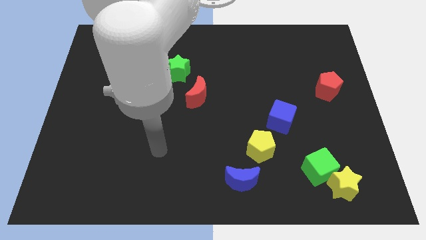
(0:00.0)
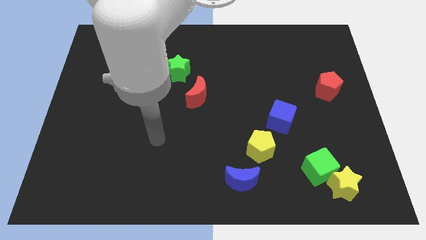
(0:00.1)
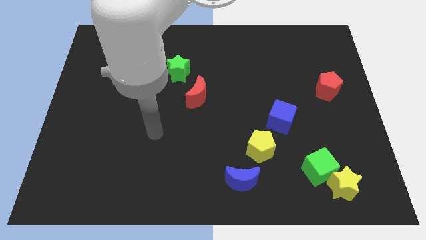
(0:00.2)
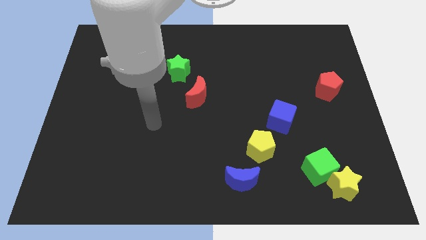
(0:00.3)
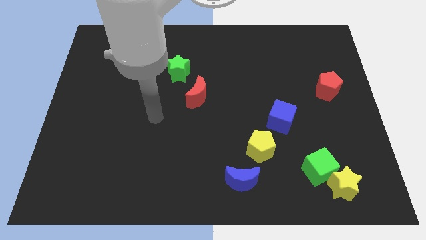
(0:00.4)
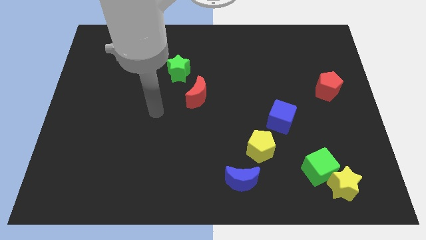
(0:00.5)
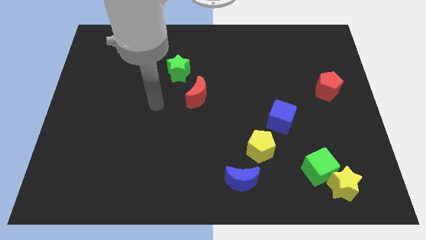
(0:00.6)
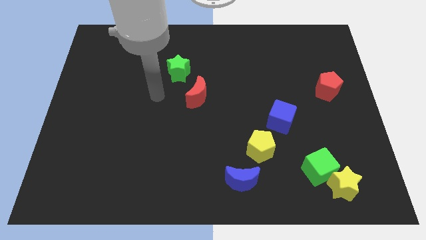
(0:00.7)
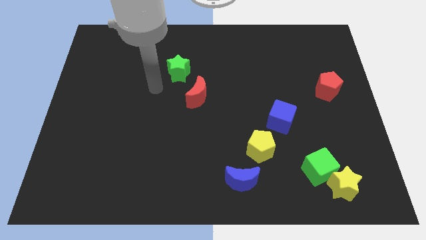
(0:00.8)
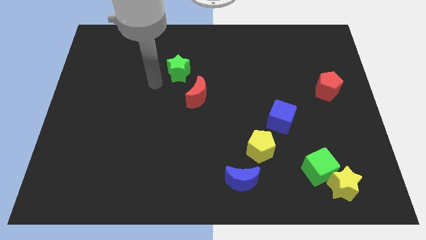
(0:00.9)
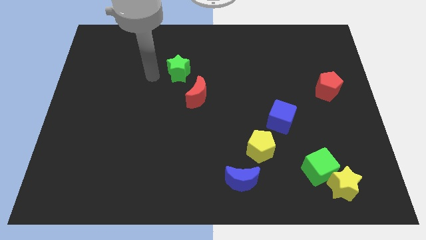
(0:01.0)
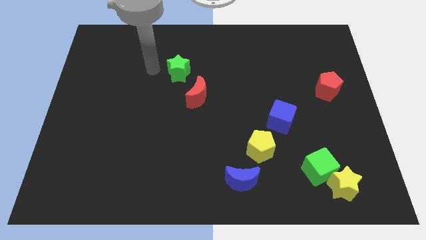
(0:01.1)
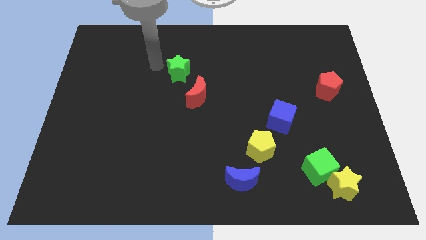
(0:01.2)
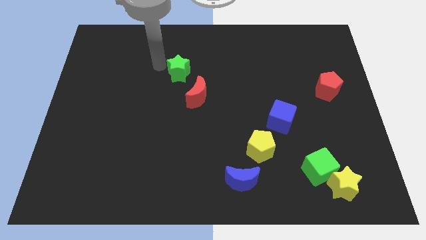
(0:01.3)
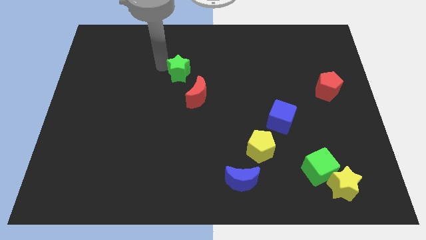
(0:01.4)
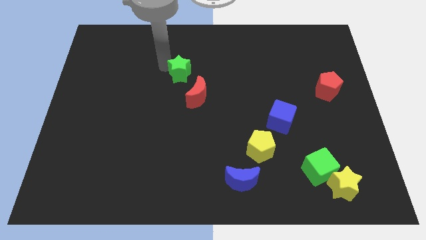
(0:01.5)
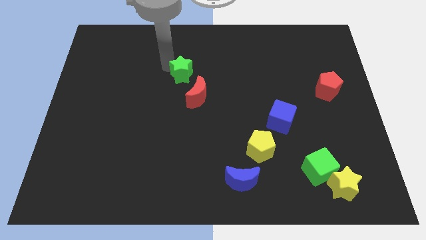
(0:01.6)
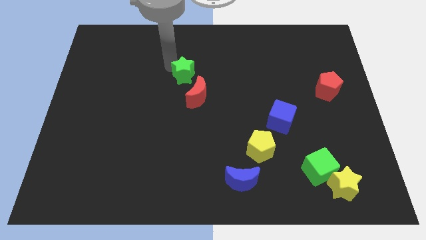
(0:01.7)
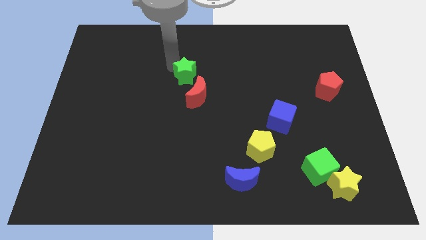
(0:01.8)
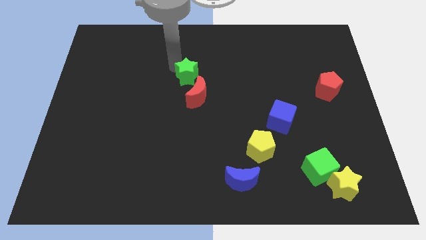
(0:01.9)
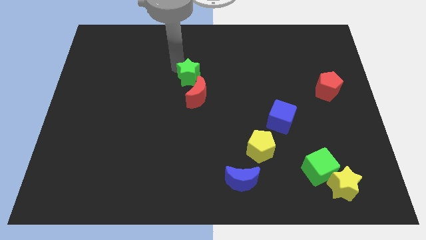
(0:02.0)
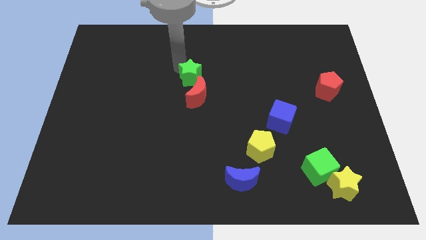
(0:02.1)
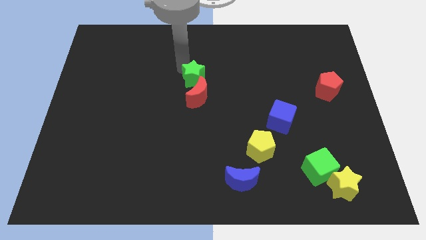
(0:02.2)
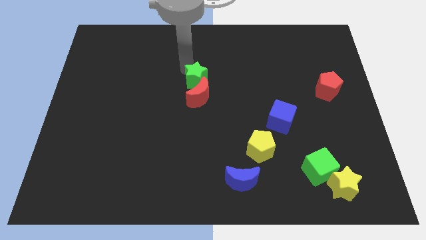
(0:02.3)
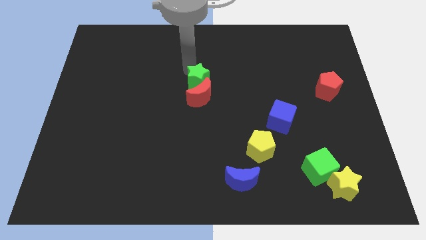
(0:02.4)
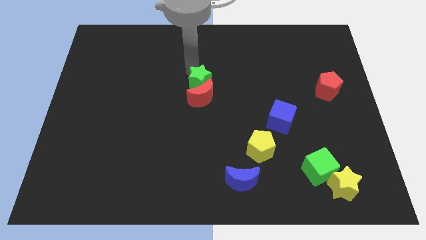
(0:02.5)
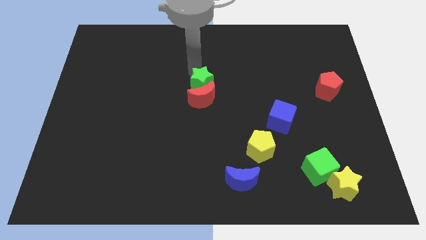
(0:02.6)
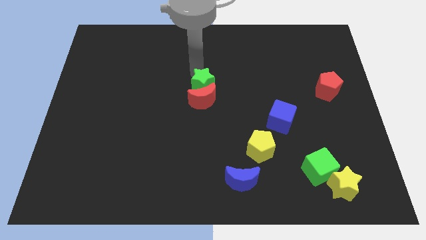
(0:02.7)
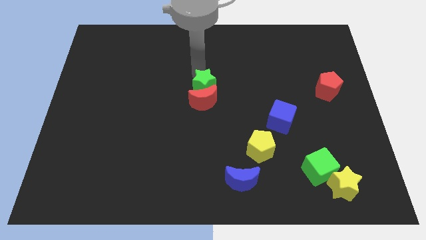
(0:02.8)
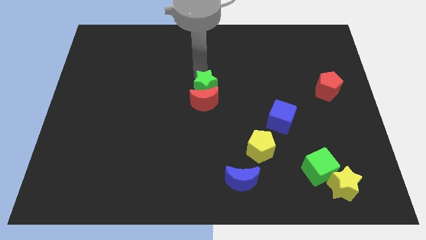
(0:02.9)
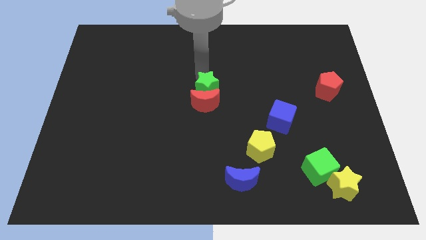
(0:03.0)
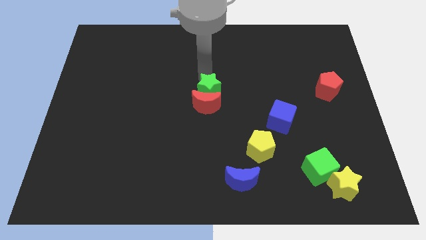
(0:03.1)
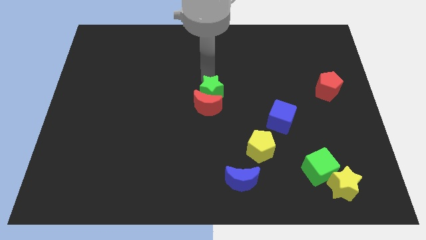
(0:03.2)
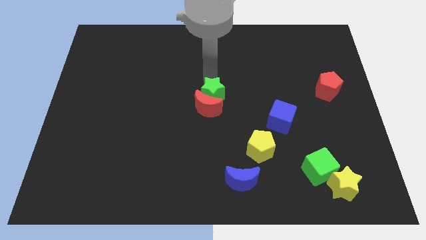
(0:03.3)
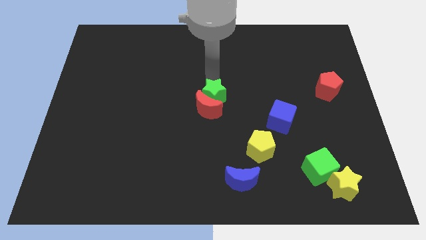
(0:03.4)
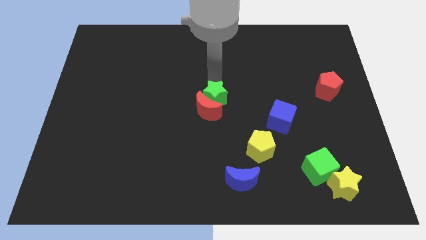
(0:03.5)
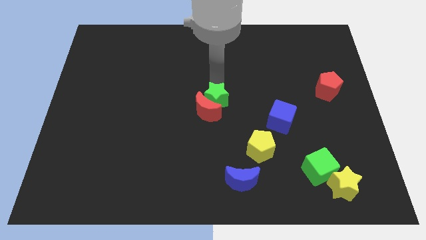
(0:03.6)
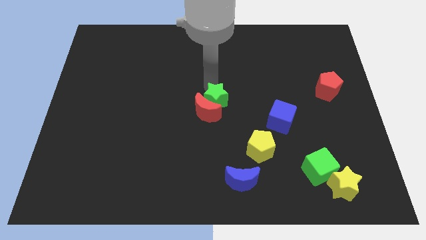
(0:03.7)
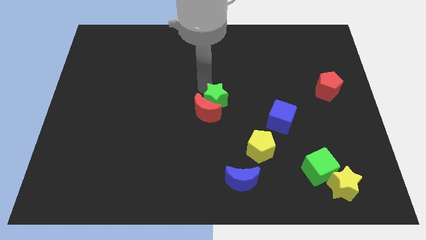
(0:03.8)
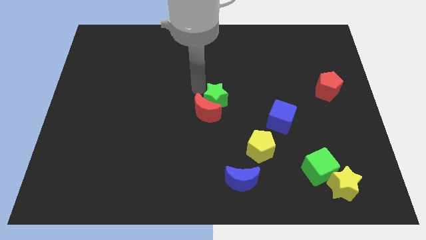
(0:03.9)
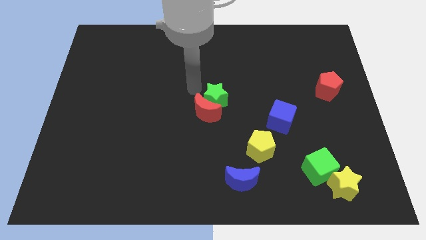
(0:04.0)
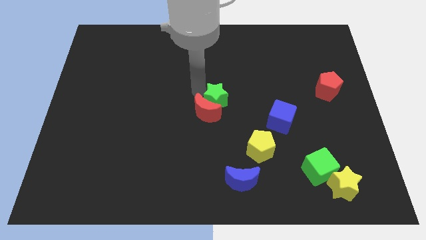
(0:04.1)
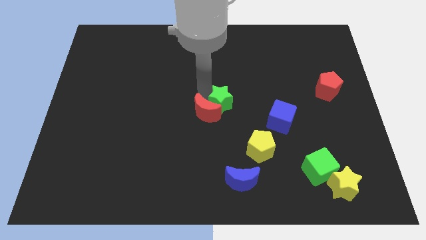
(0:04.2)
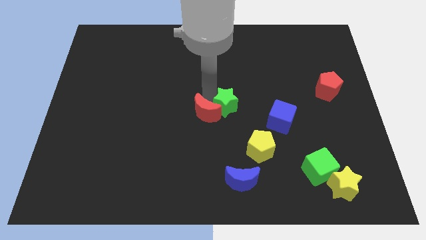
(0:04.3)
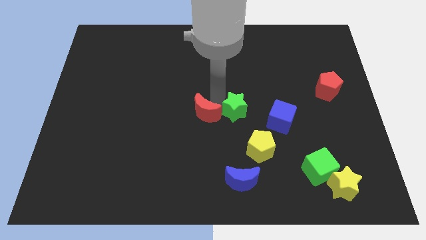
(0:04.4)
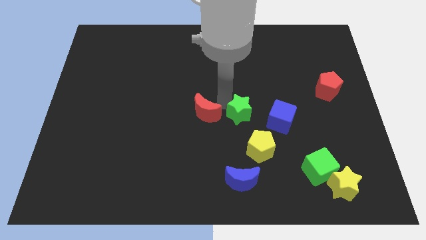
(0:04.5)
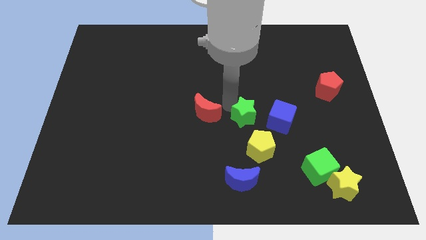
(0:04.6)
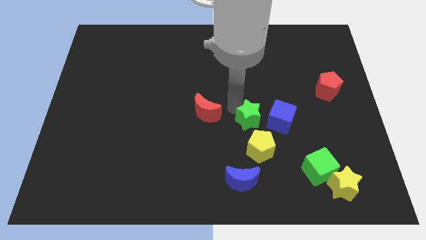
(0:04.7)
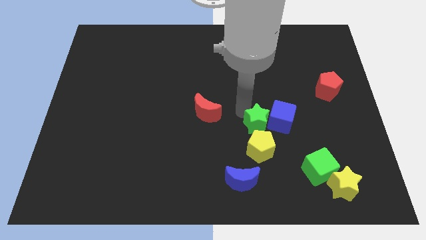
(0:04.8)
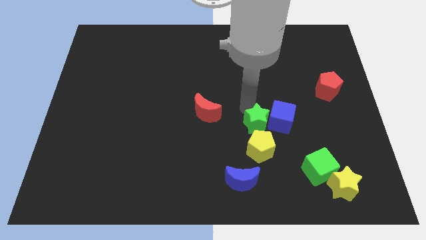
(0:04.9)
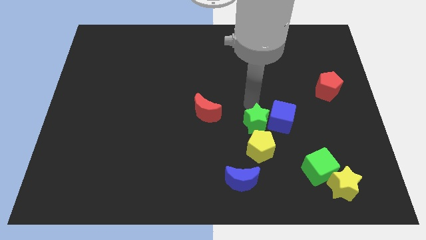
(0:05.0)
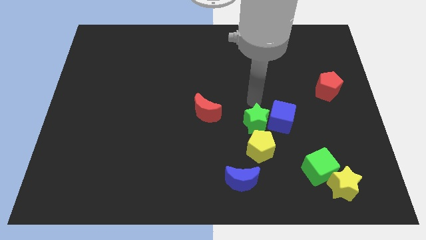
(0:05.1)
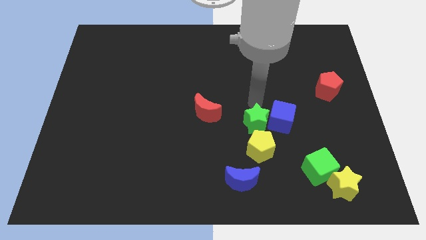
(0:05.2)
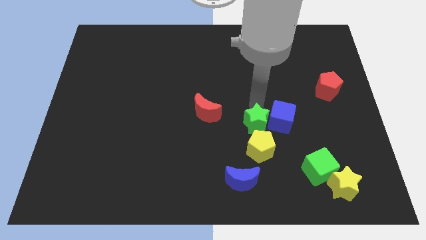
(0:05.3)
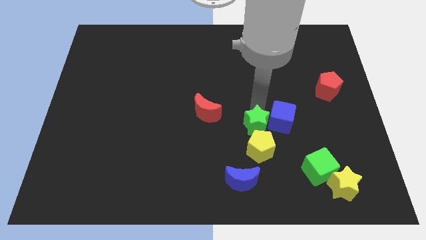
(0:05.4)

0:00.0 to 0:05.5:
push the green star to the yellow pentagon
